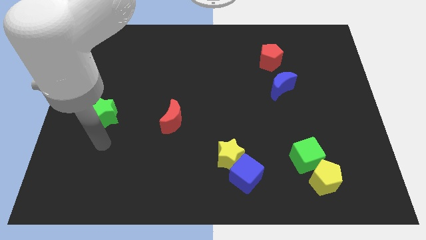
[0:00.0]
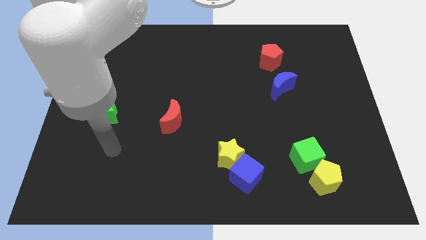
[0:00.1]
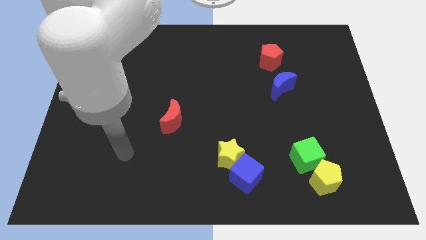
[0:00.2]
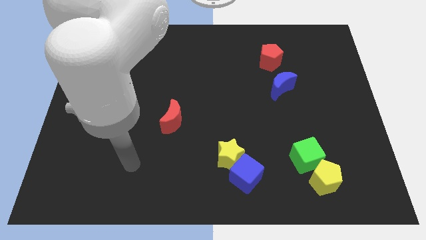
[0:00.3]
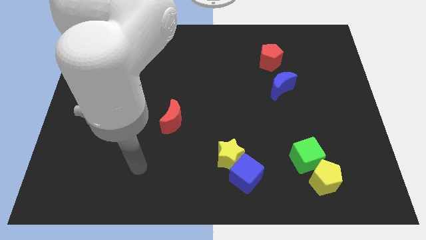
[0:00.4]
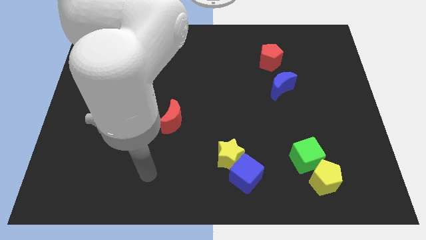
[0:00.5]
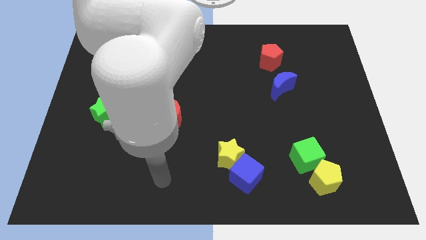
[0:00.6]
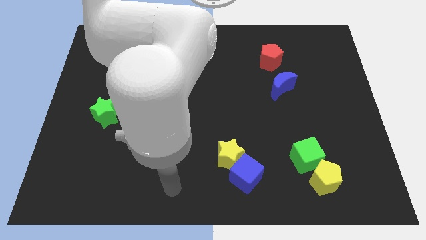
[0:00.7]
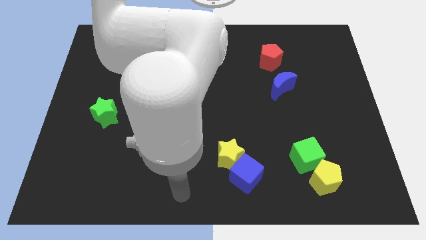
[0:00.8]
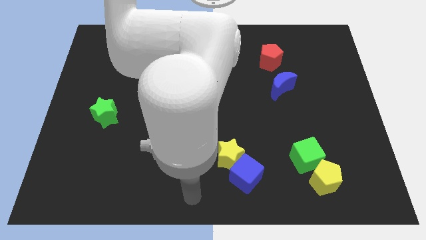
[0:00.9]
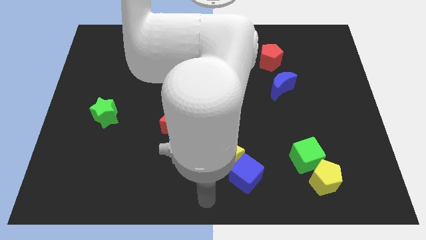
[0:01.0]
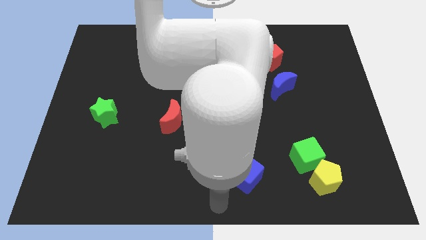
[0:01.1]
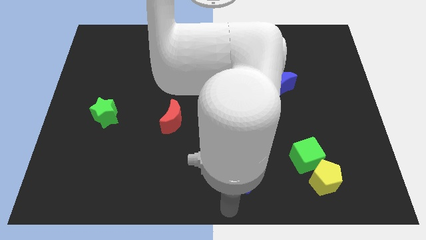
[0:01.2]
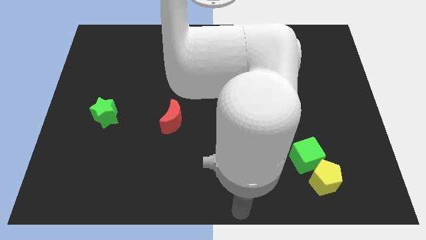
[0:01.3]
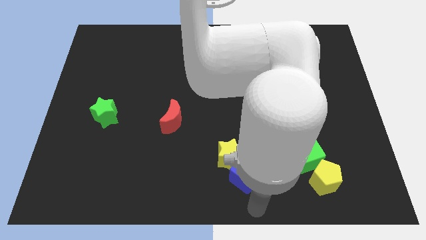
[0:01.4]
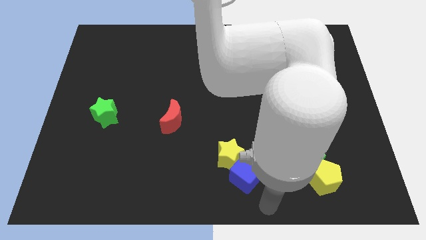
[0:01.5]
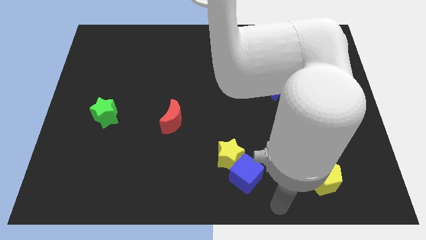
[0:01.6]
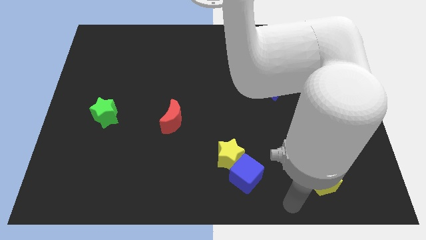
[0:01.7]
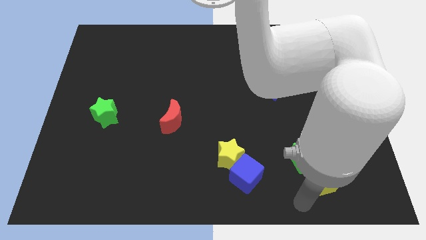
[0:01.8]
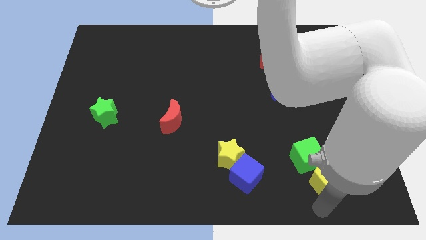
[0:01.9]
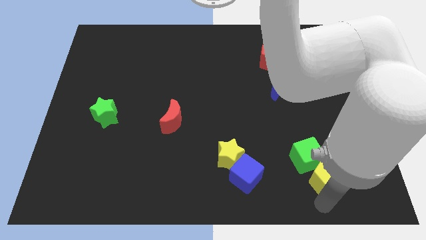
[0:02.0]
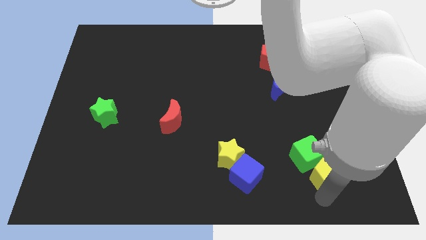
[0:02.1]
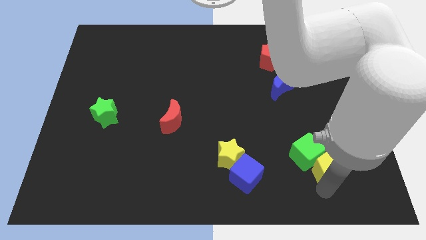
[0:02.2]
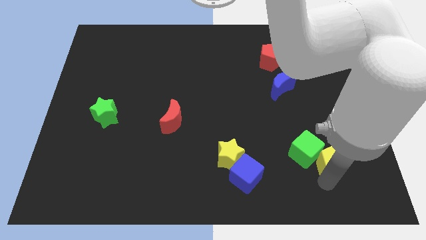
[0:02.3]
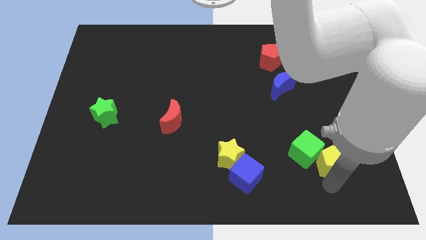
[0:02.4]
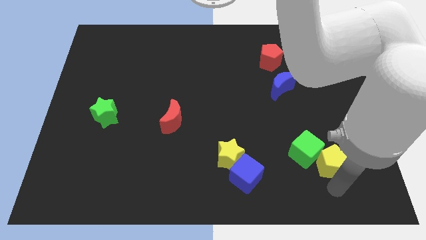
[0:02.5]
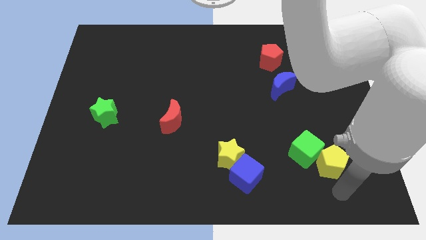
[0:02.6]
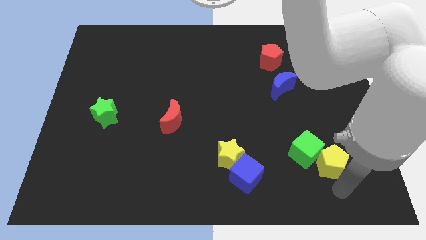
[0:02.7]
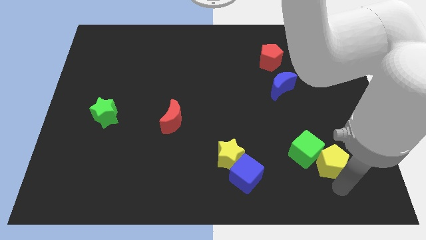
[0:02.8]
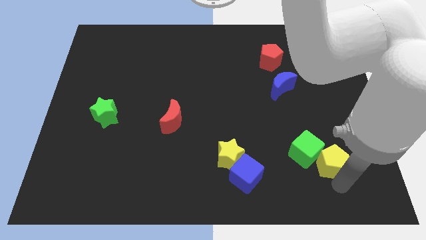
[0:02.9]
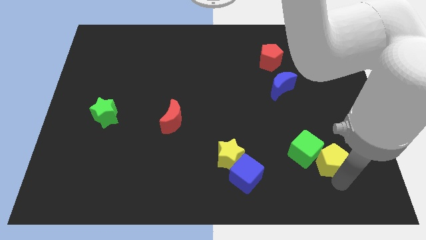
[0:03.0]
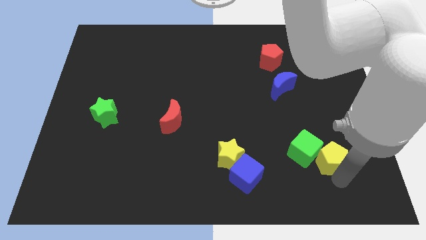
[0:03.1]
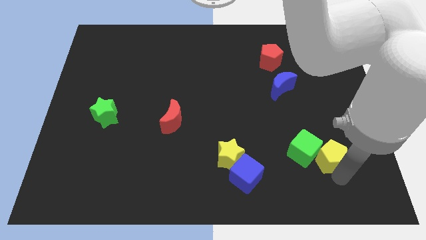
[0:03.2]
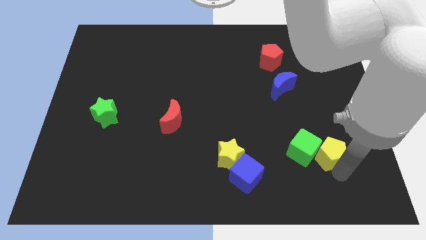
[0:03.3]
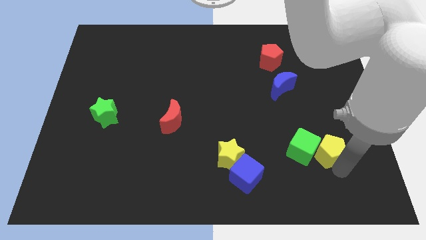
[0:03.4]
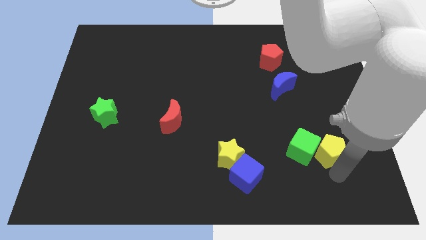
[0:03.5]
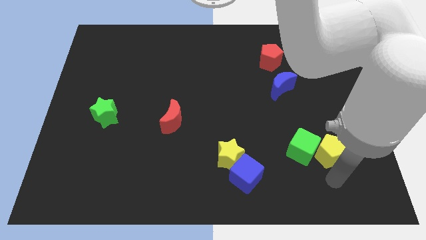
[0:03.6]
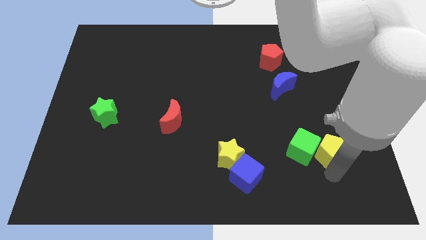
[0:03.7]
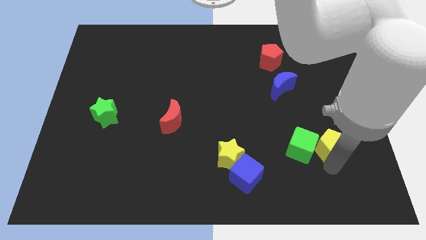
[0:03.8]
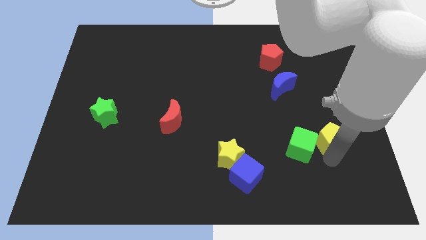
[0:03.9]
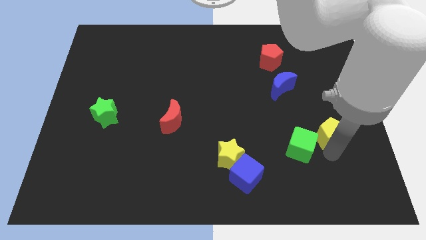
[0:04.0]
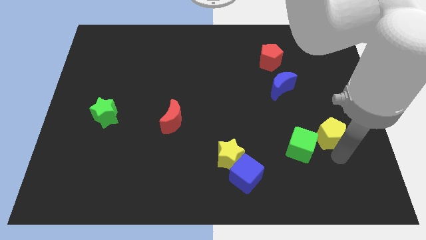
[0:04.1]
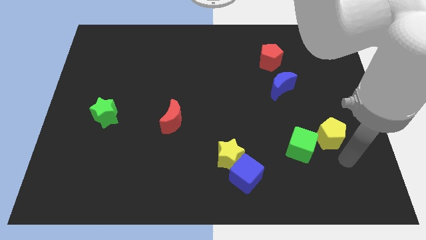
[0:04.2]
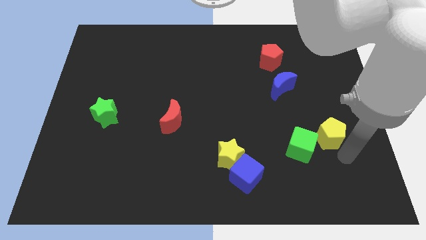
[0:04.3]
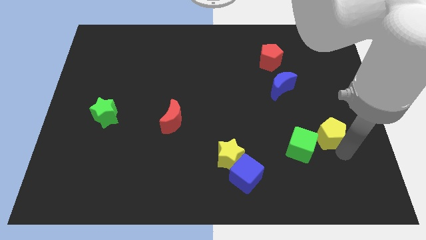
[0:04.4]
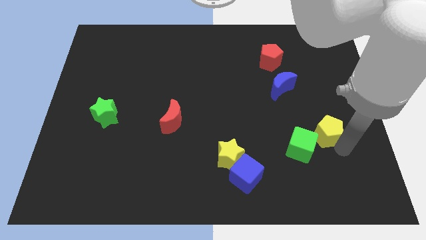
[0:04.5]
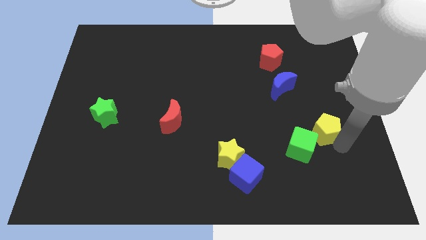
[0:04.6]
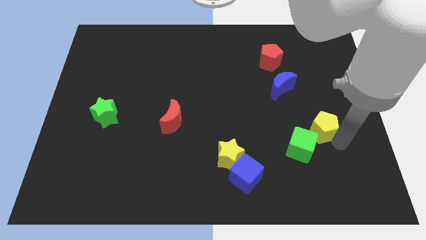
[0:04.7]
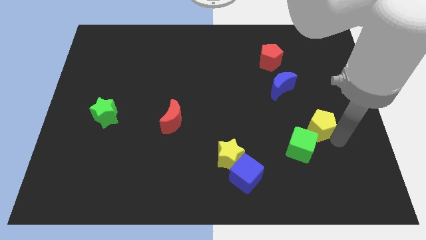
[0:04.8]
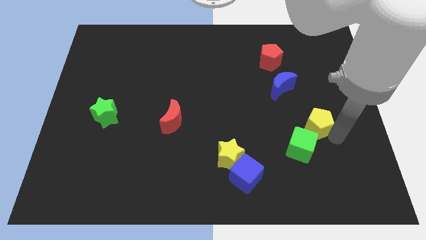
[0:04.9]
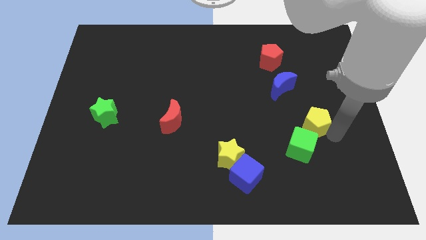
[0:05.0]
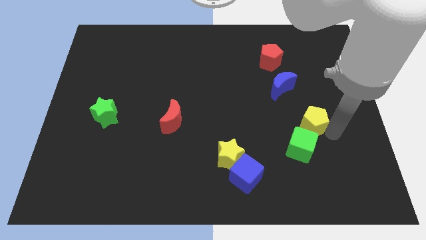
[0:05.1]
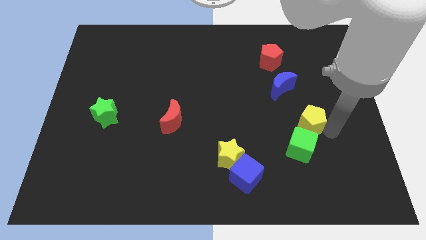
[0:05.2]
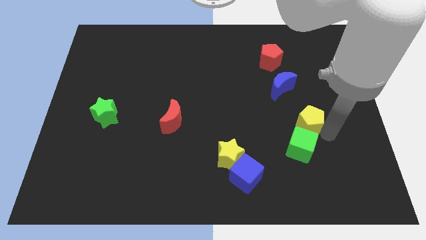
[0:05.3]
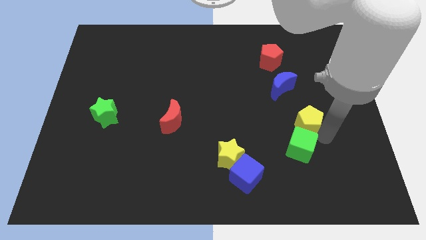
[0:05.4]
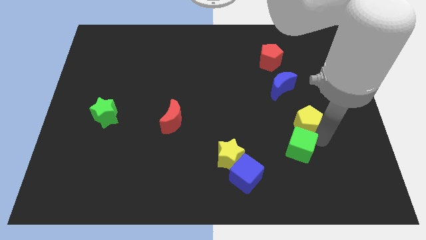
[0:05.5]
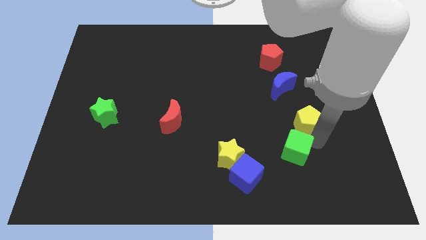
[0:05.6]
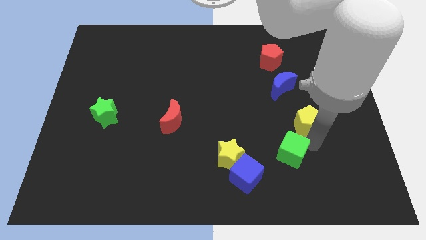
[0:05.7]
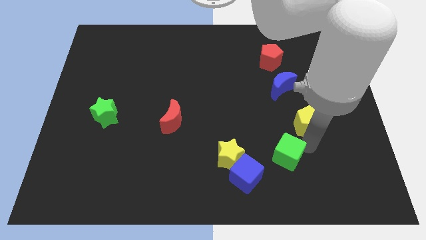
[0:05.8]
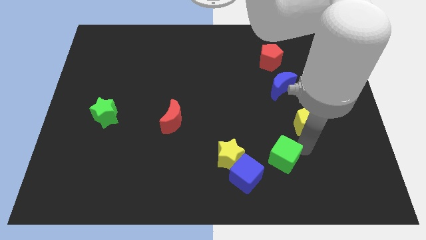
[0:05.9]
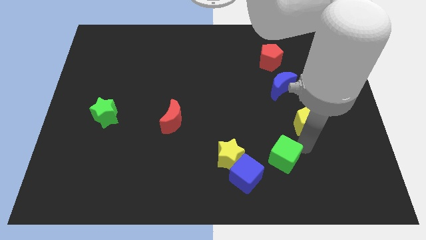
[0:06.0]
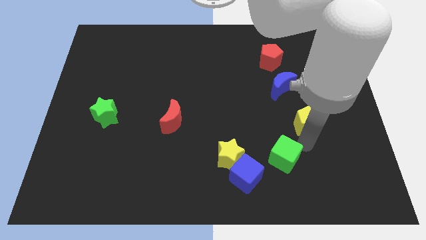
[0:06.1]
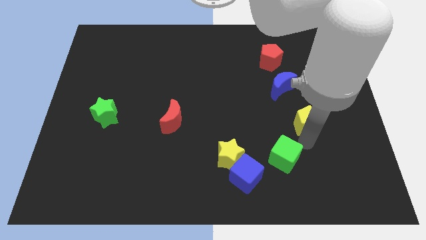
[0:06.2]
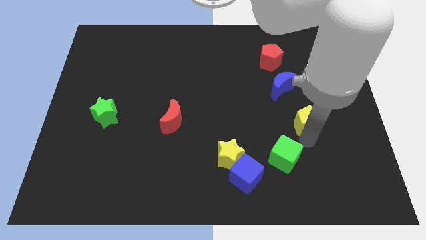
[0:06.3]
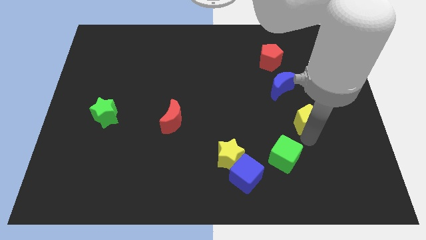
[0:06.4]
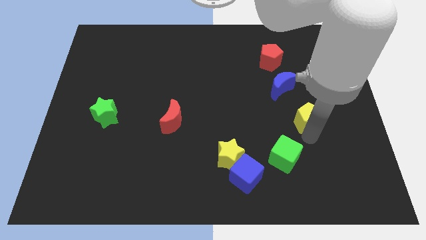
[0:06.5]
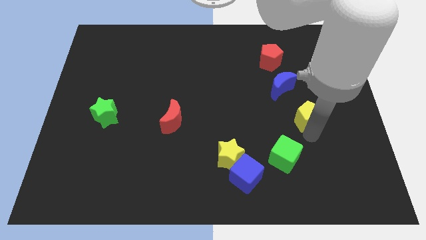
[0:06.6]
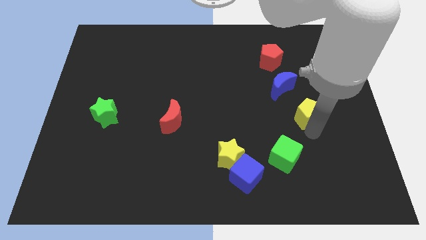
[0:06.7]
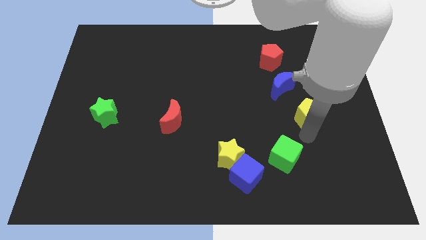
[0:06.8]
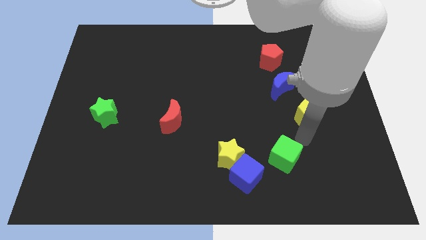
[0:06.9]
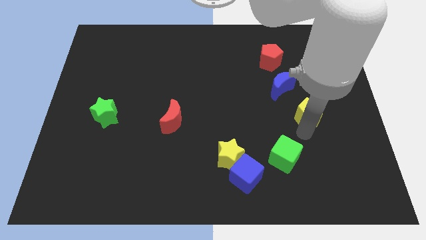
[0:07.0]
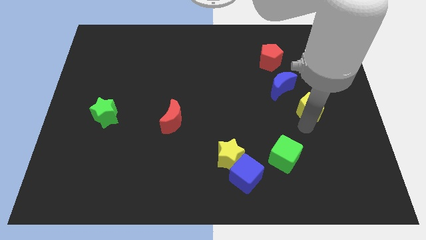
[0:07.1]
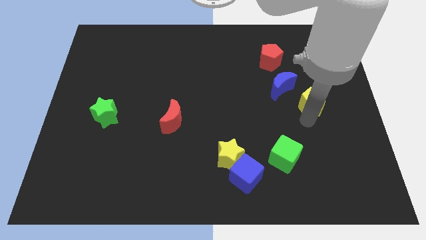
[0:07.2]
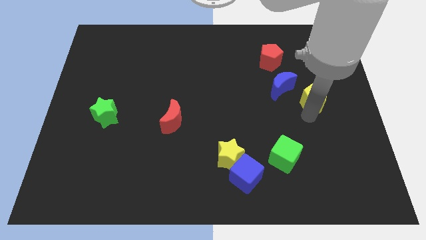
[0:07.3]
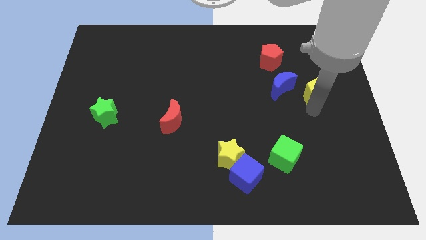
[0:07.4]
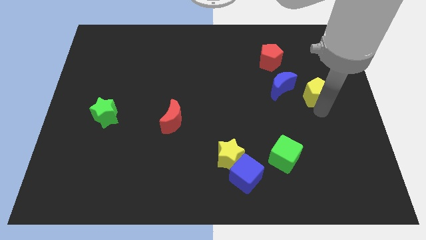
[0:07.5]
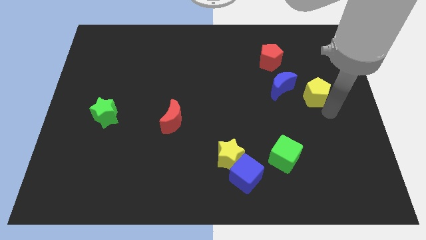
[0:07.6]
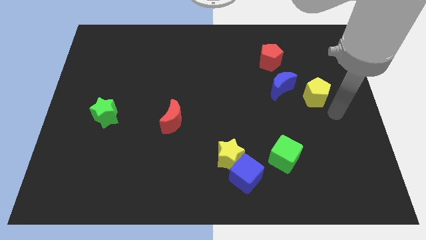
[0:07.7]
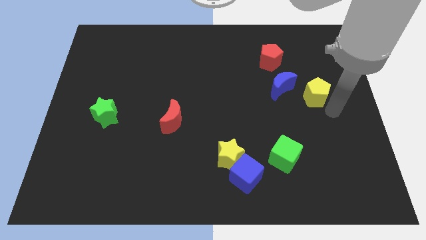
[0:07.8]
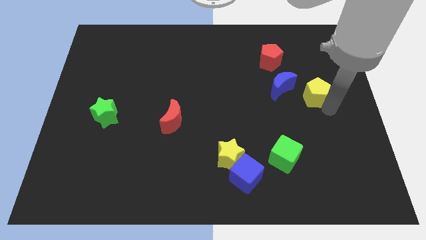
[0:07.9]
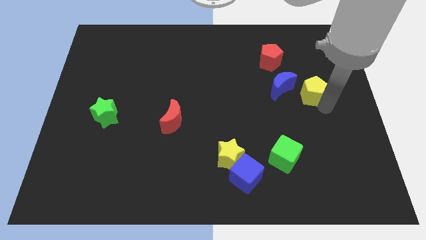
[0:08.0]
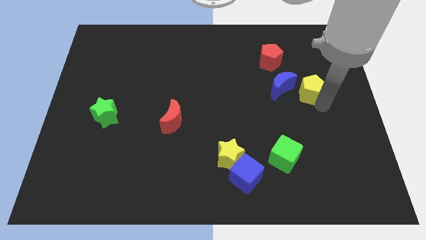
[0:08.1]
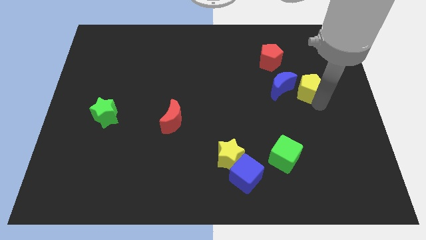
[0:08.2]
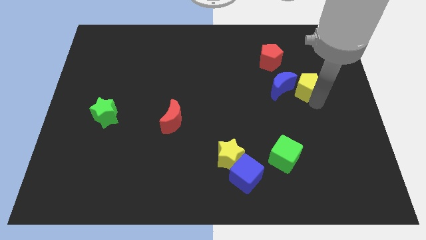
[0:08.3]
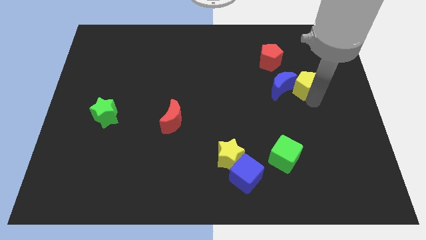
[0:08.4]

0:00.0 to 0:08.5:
move the yellow pentagon to the bottom right of the red pentagon
